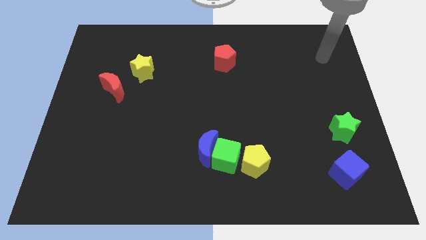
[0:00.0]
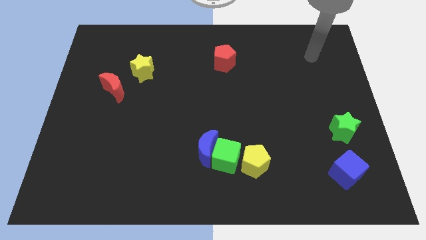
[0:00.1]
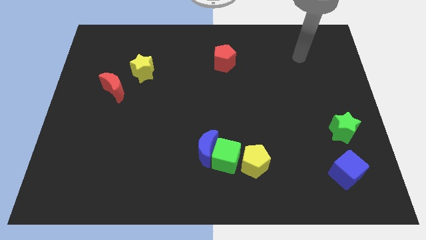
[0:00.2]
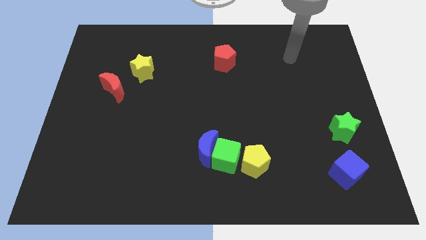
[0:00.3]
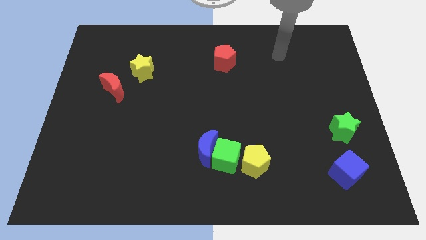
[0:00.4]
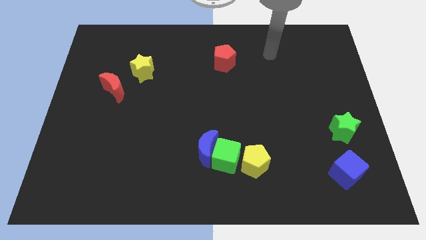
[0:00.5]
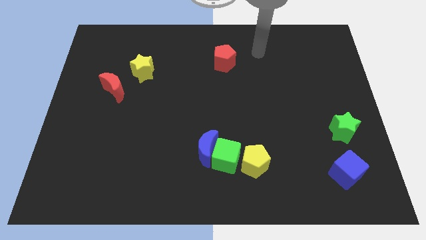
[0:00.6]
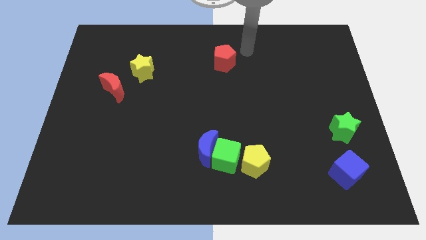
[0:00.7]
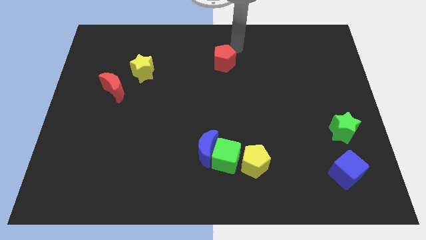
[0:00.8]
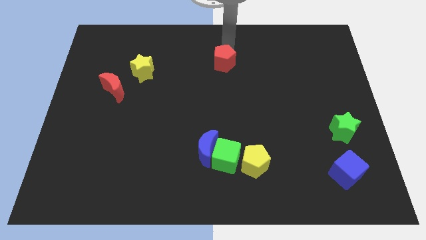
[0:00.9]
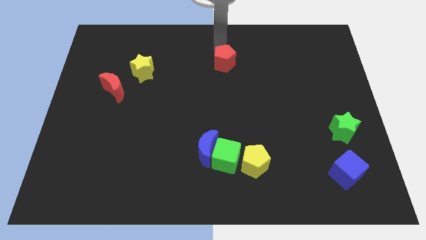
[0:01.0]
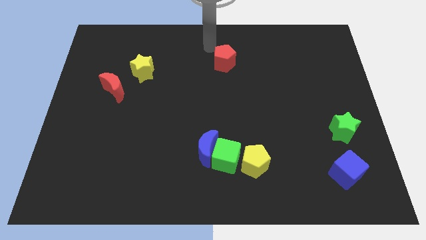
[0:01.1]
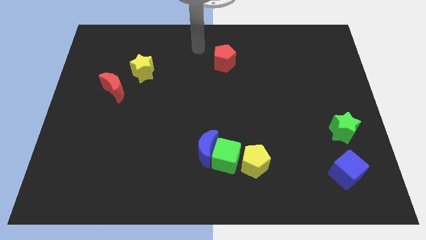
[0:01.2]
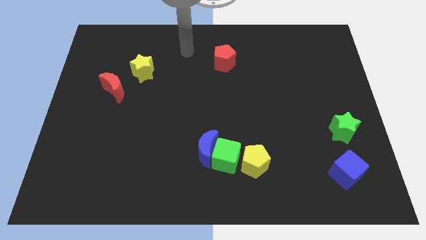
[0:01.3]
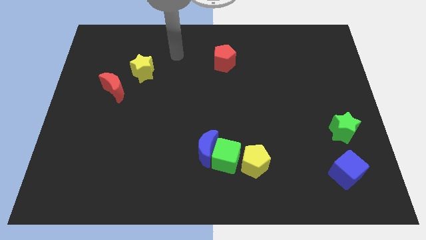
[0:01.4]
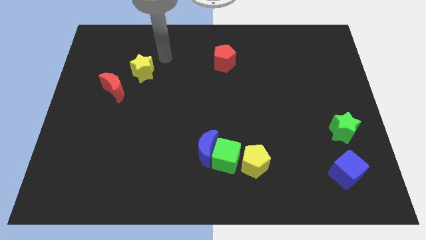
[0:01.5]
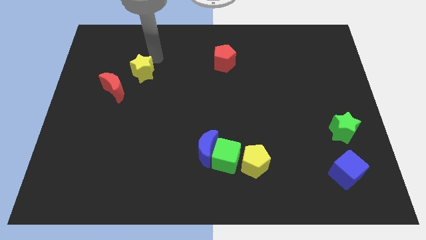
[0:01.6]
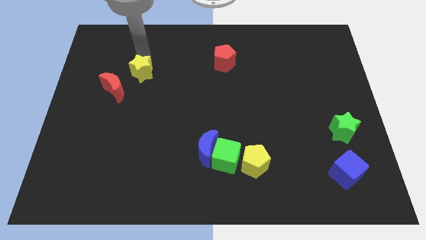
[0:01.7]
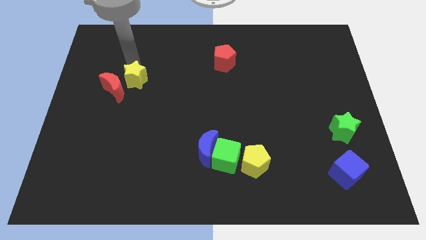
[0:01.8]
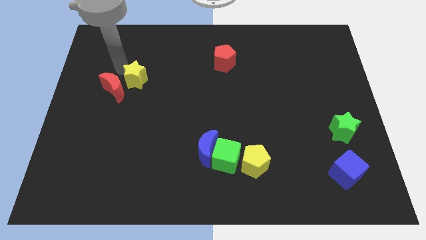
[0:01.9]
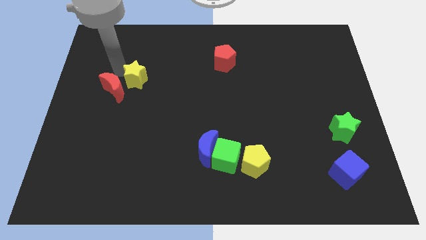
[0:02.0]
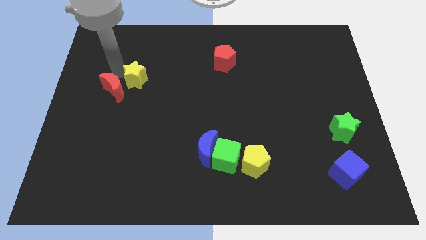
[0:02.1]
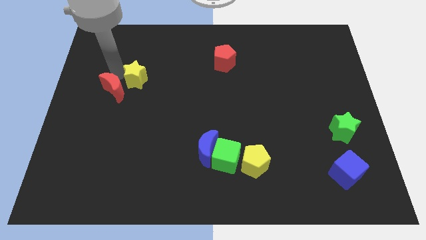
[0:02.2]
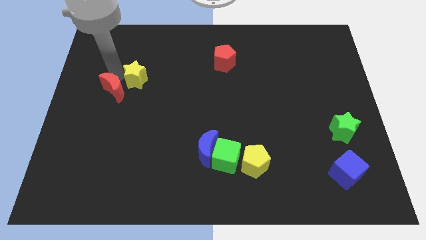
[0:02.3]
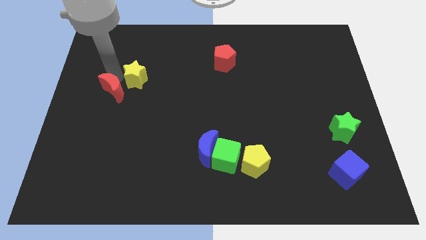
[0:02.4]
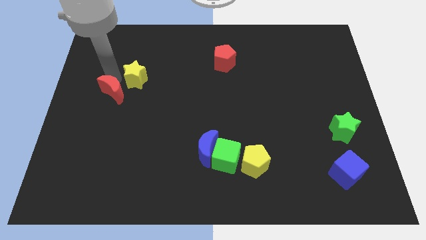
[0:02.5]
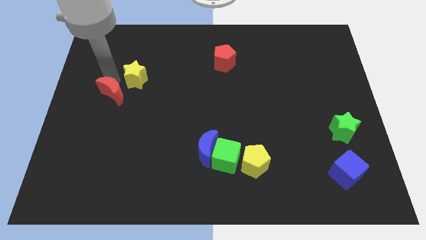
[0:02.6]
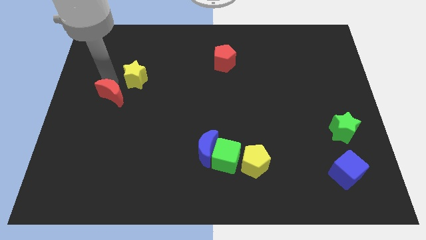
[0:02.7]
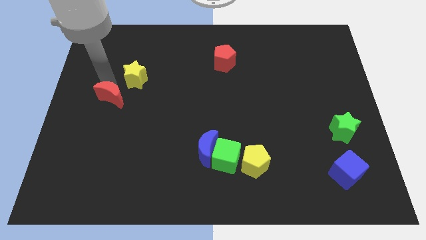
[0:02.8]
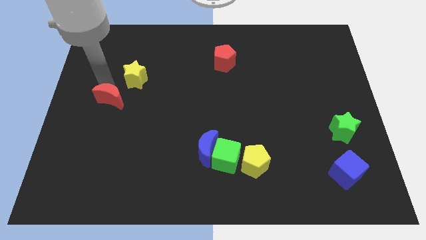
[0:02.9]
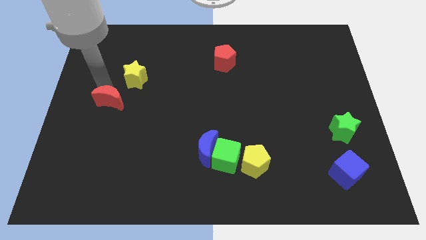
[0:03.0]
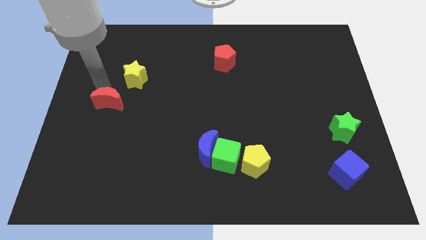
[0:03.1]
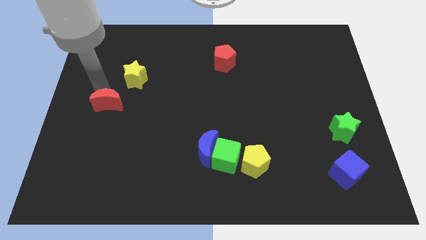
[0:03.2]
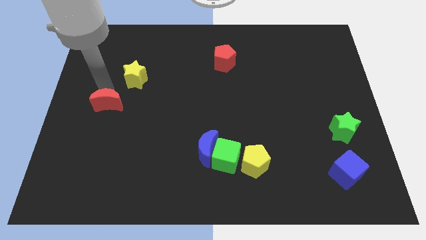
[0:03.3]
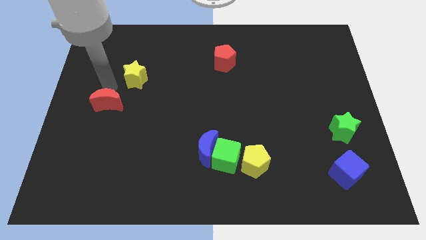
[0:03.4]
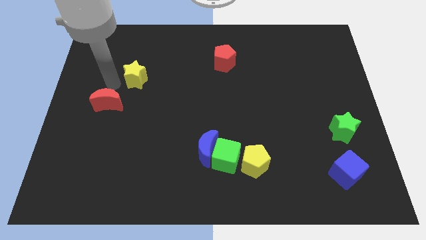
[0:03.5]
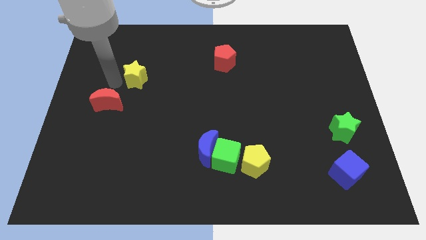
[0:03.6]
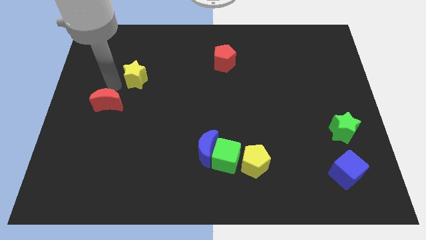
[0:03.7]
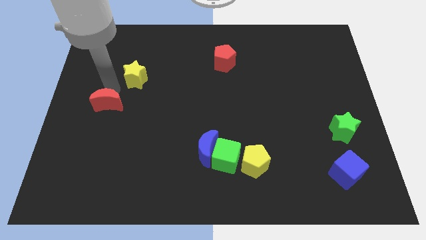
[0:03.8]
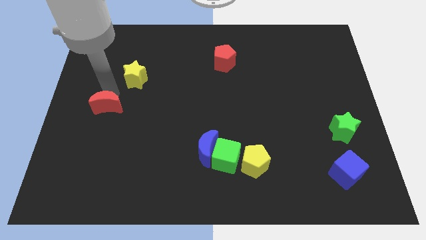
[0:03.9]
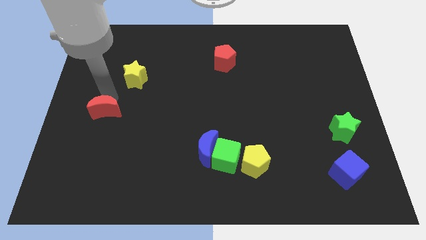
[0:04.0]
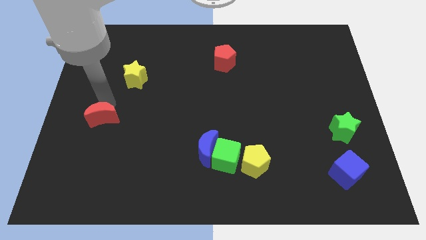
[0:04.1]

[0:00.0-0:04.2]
slightly move the red moon downwards

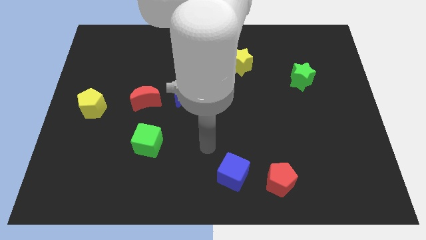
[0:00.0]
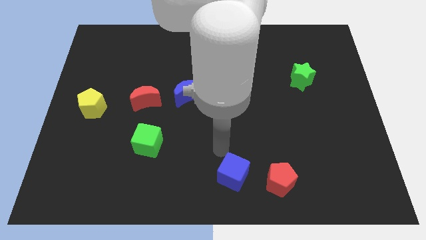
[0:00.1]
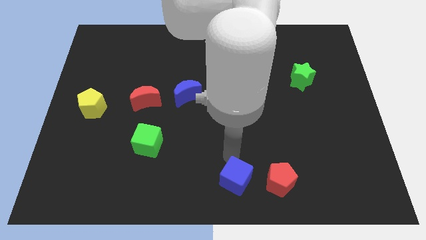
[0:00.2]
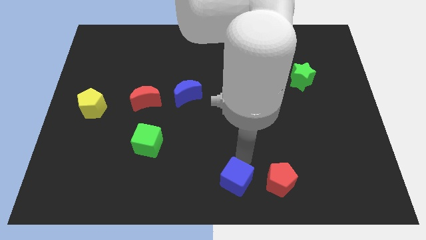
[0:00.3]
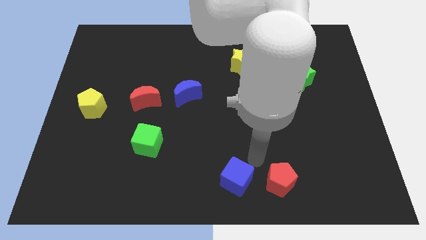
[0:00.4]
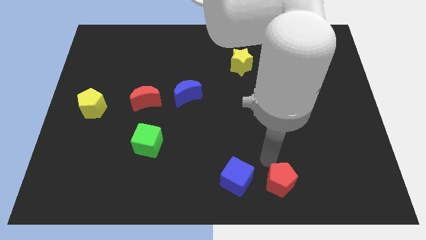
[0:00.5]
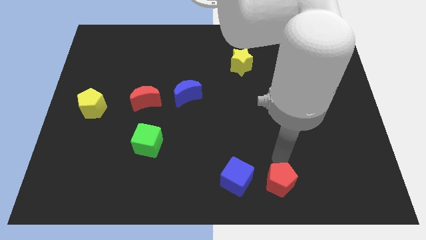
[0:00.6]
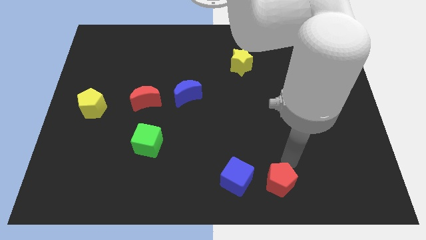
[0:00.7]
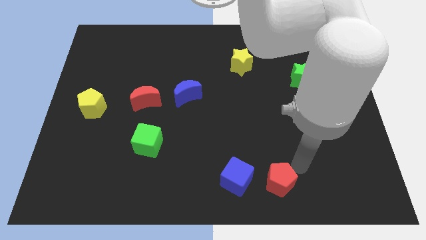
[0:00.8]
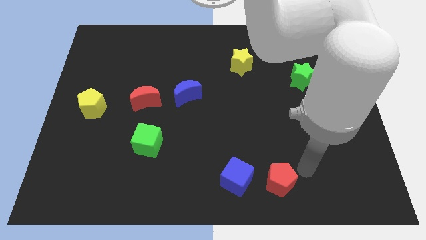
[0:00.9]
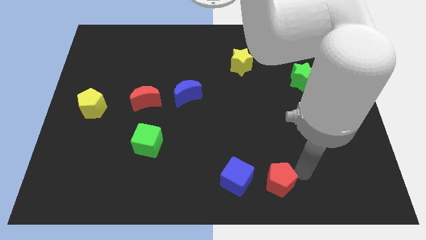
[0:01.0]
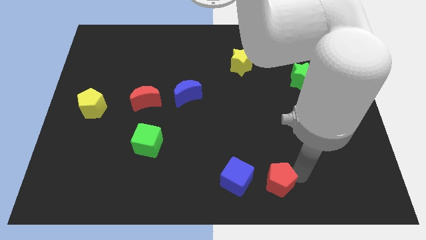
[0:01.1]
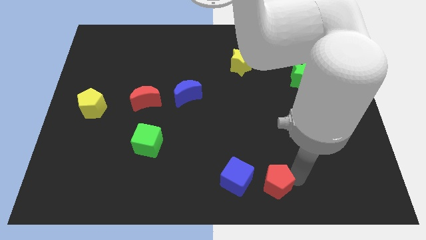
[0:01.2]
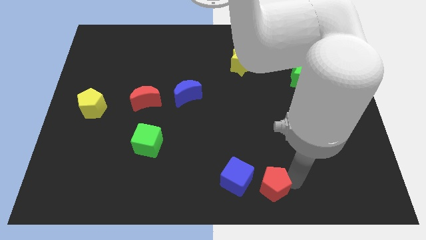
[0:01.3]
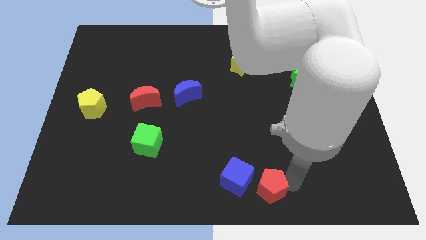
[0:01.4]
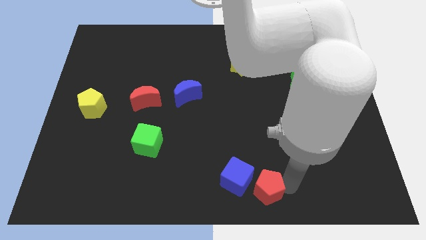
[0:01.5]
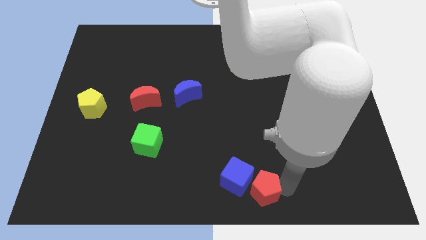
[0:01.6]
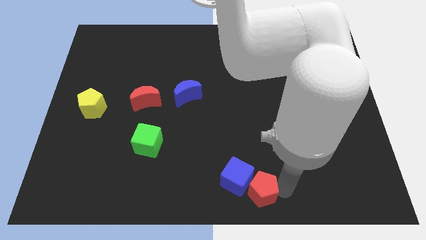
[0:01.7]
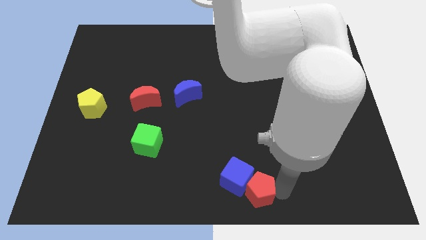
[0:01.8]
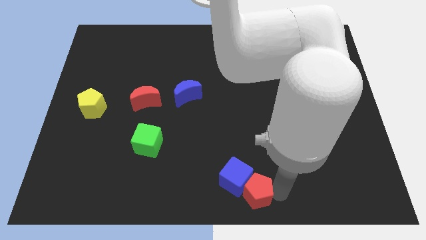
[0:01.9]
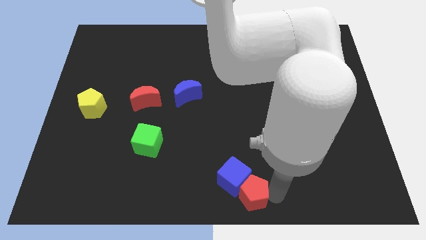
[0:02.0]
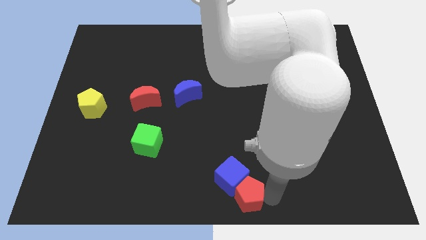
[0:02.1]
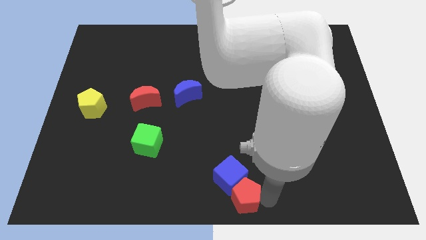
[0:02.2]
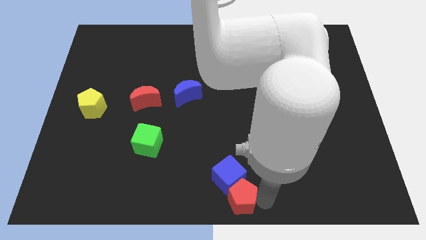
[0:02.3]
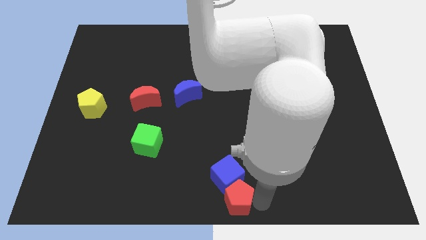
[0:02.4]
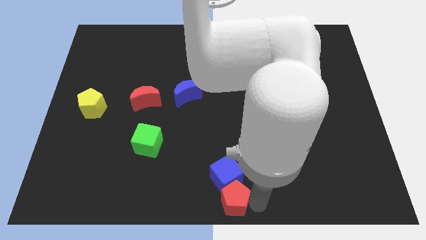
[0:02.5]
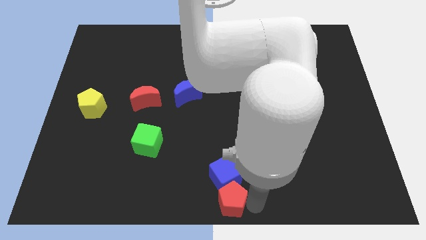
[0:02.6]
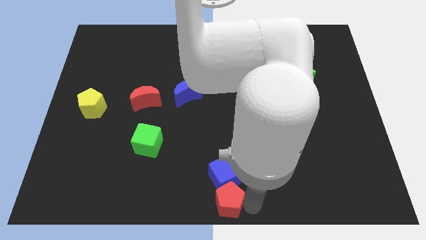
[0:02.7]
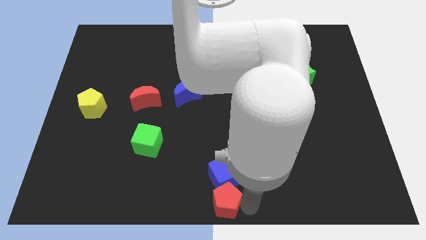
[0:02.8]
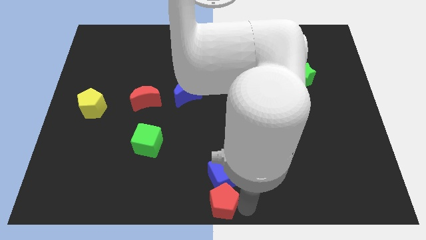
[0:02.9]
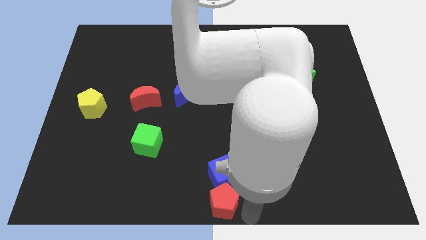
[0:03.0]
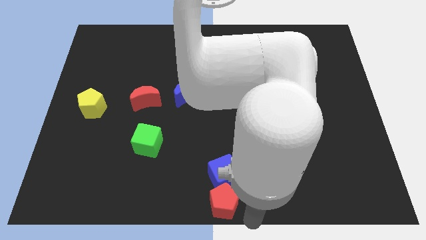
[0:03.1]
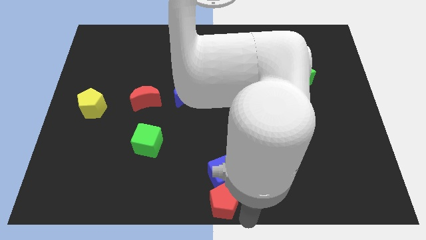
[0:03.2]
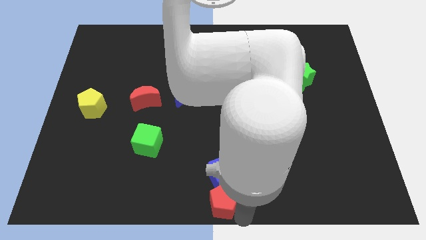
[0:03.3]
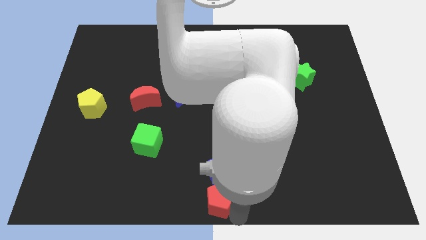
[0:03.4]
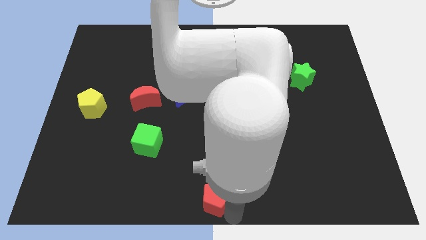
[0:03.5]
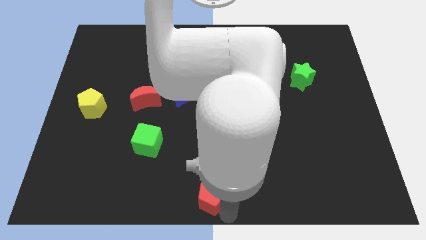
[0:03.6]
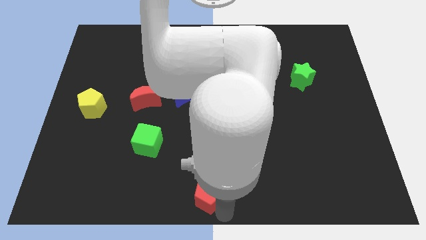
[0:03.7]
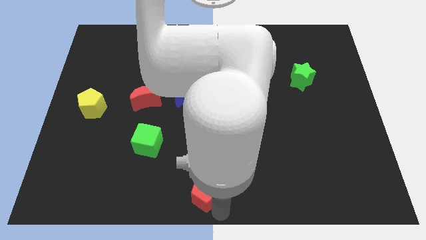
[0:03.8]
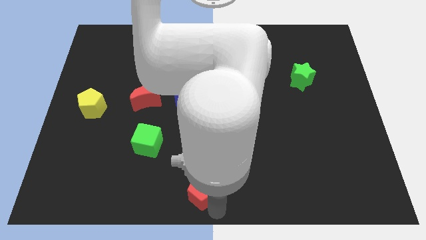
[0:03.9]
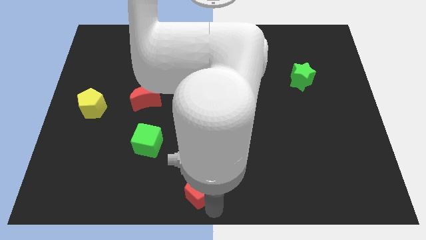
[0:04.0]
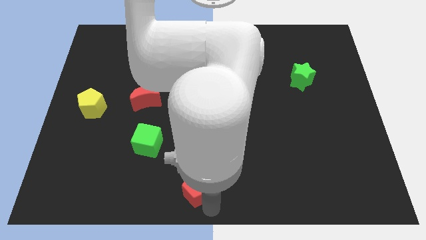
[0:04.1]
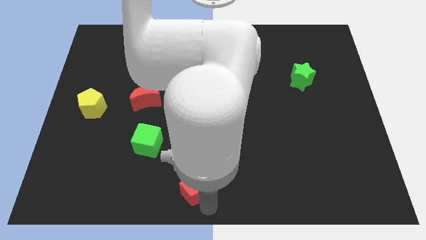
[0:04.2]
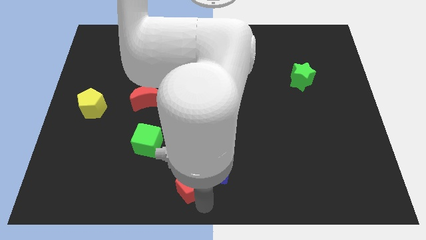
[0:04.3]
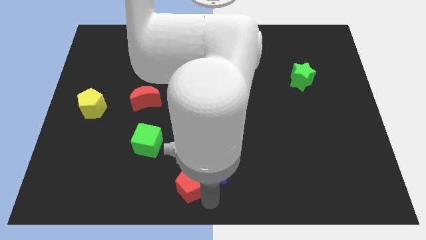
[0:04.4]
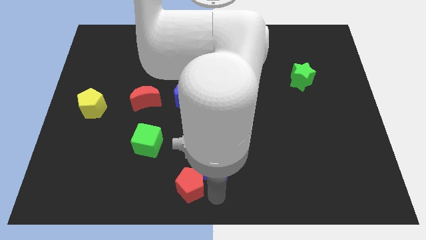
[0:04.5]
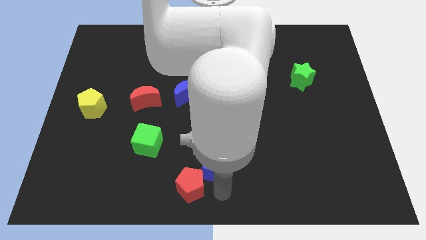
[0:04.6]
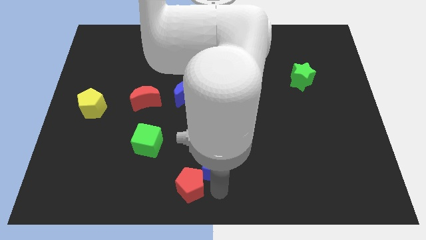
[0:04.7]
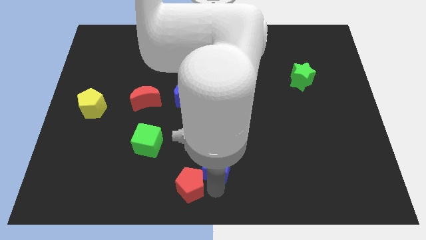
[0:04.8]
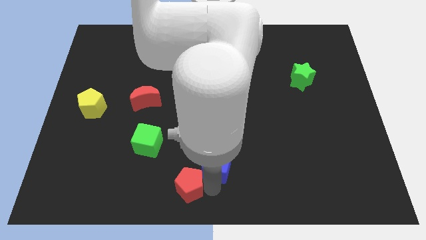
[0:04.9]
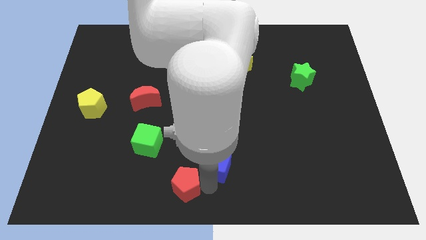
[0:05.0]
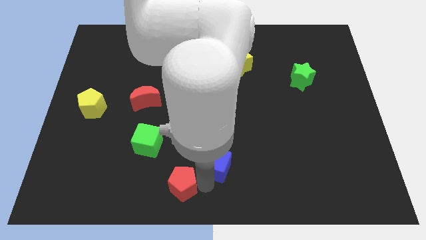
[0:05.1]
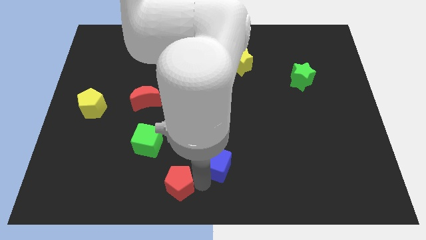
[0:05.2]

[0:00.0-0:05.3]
push the red pentagon left
